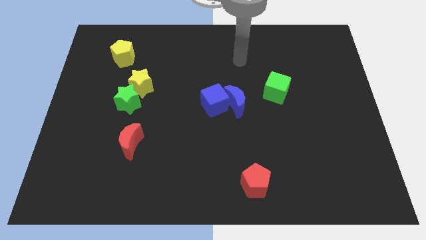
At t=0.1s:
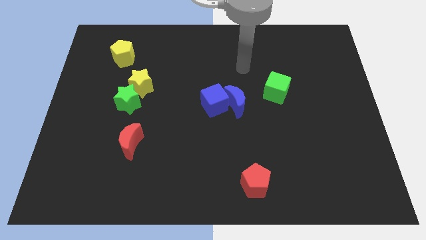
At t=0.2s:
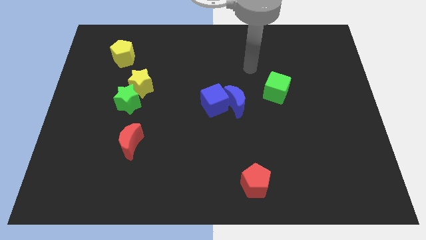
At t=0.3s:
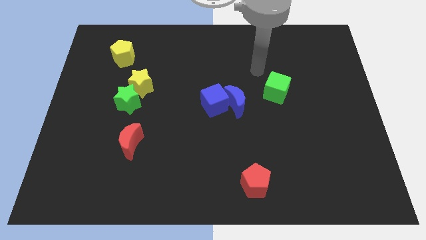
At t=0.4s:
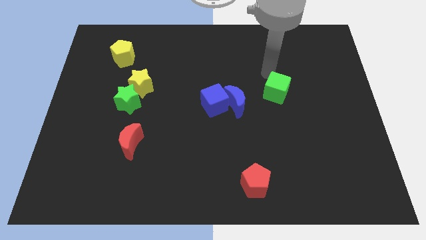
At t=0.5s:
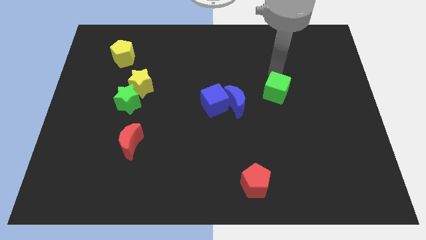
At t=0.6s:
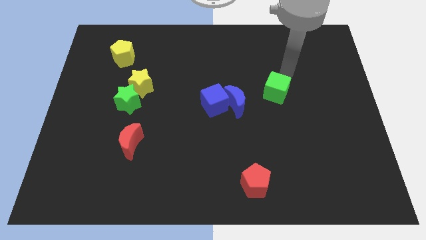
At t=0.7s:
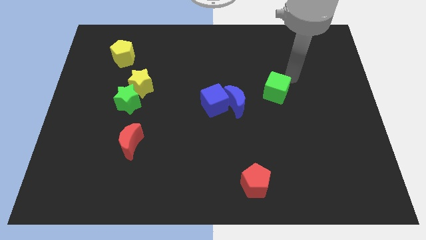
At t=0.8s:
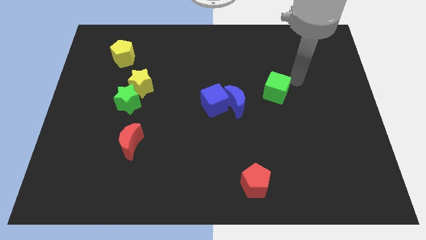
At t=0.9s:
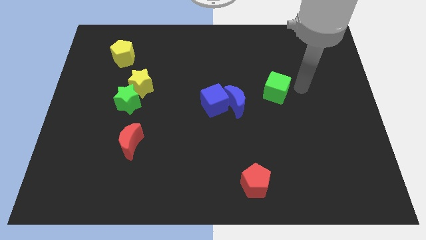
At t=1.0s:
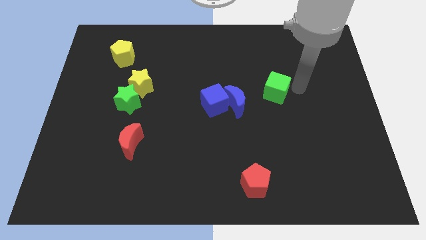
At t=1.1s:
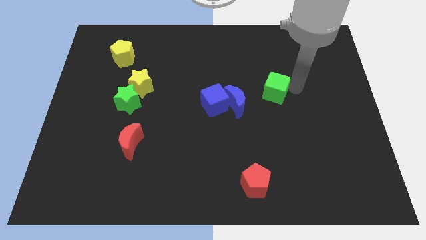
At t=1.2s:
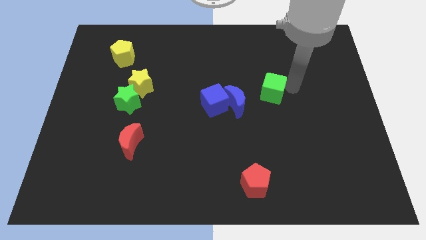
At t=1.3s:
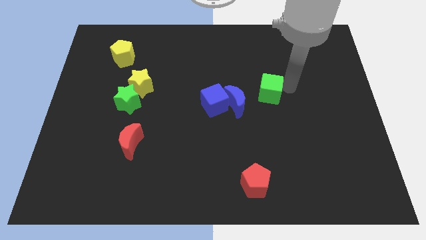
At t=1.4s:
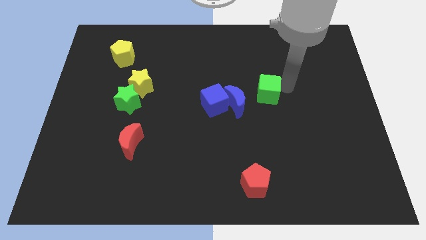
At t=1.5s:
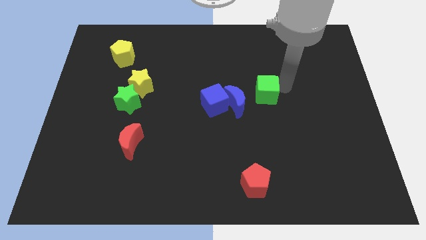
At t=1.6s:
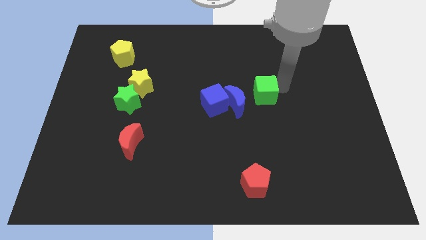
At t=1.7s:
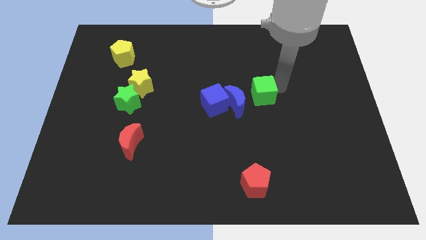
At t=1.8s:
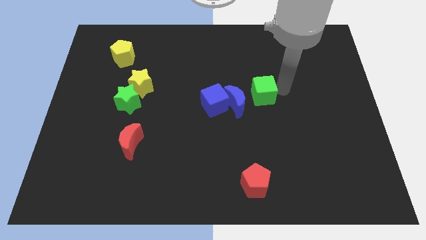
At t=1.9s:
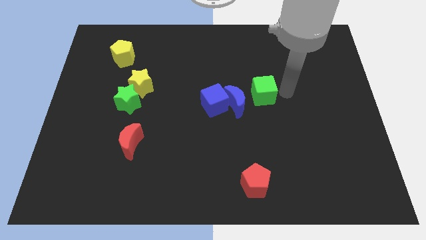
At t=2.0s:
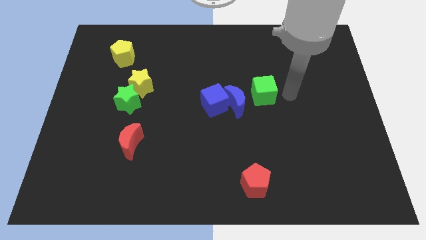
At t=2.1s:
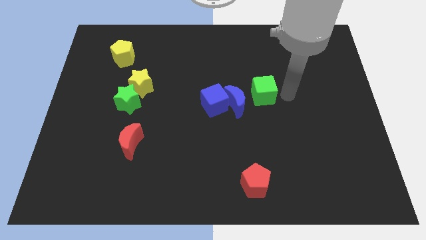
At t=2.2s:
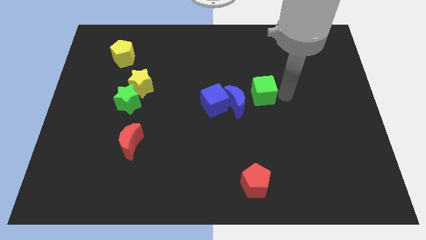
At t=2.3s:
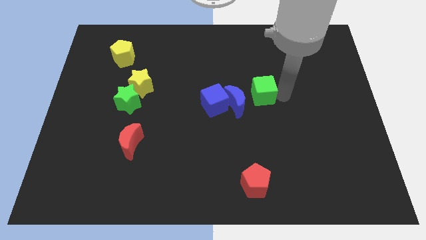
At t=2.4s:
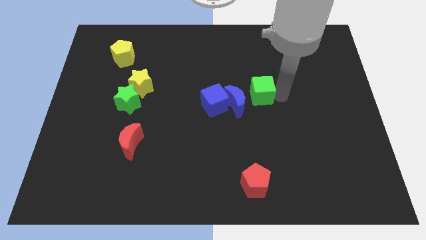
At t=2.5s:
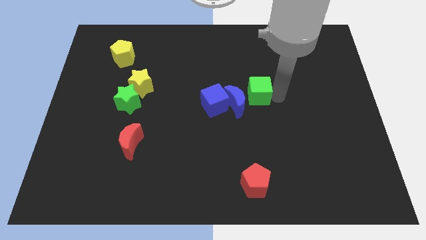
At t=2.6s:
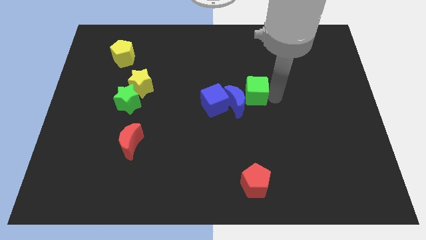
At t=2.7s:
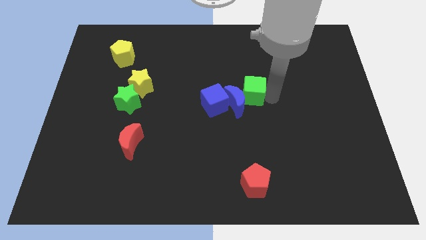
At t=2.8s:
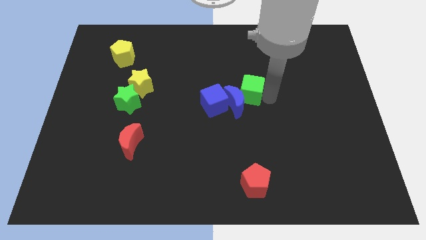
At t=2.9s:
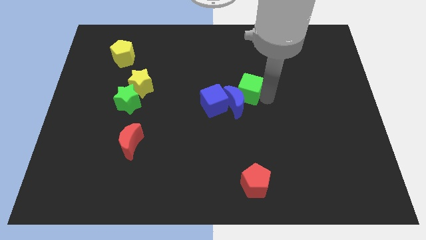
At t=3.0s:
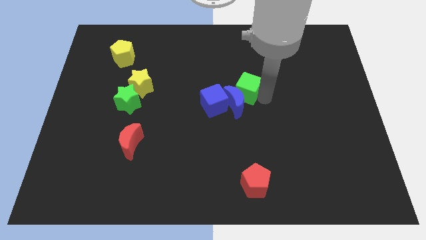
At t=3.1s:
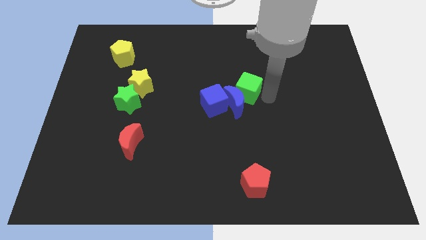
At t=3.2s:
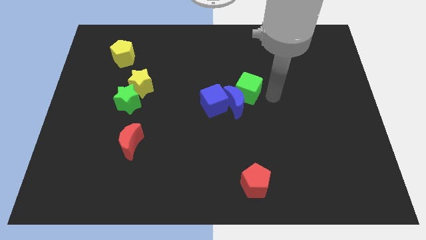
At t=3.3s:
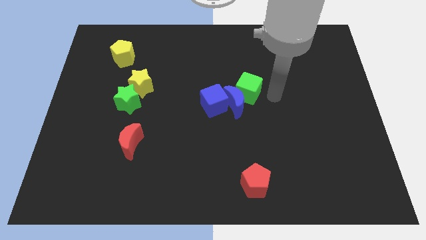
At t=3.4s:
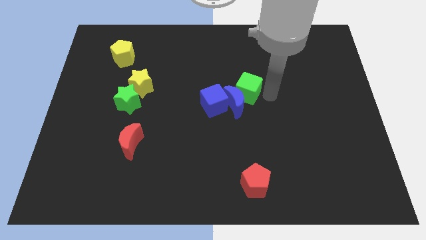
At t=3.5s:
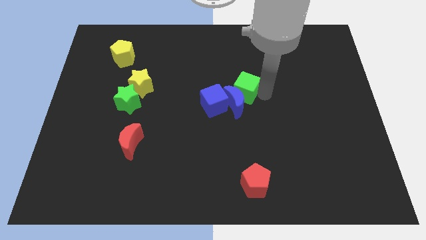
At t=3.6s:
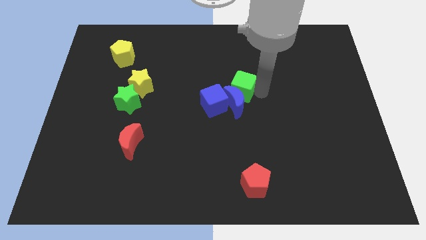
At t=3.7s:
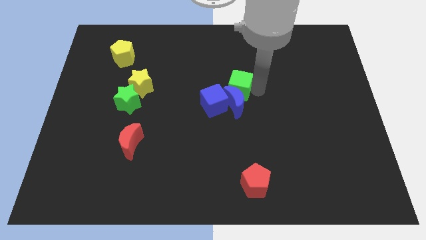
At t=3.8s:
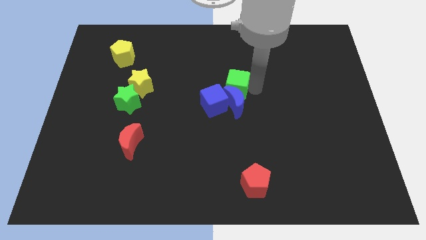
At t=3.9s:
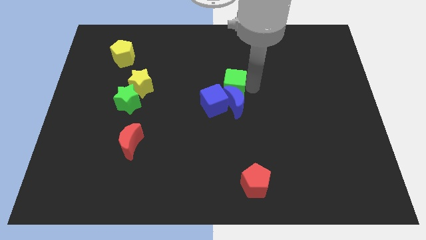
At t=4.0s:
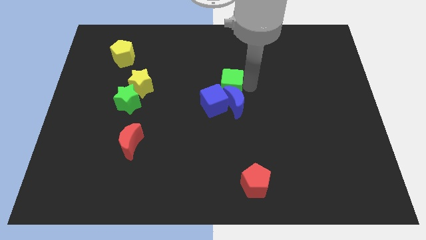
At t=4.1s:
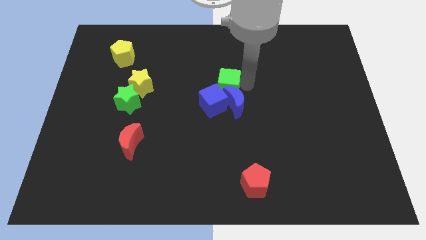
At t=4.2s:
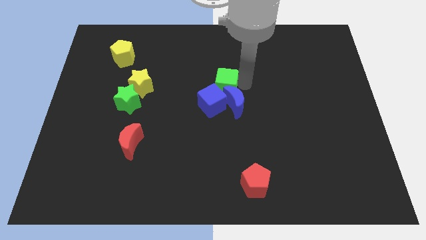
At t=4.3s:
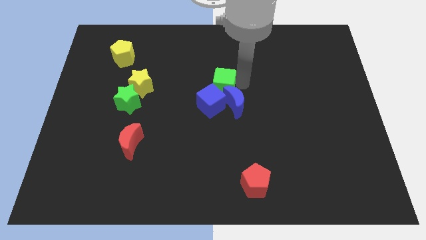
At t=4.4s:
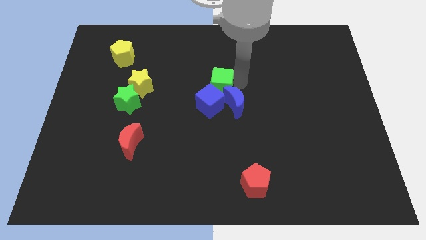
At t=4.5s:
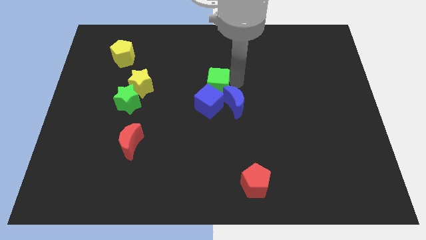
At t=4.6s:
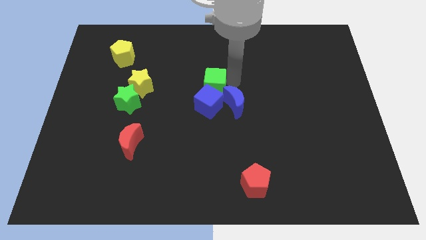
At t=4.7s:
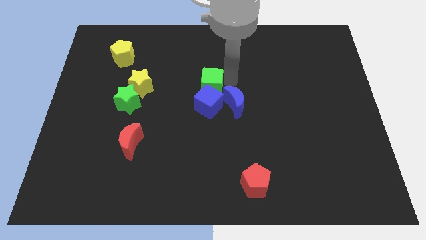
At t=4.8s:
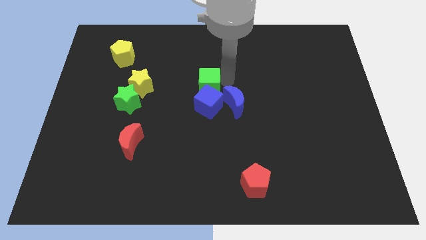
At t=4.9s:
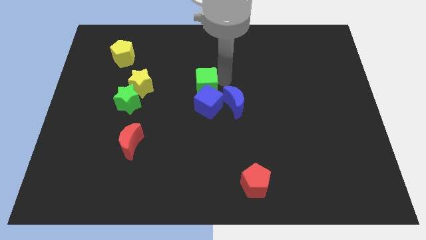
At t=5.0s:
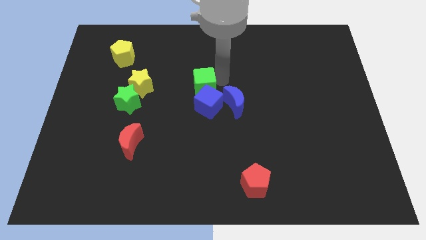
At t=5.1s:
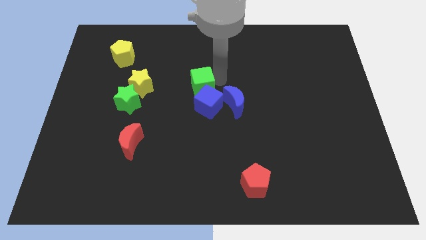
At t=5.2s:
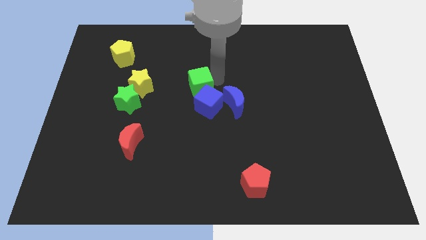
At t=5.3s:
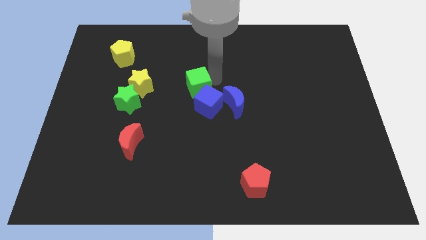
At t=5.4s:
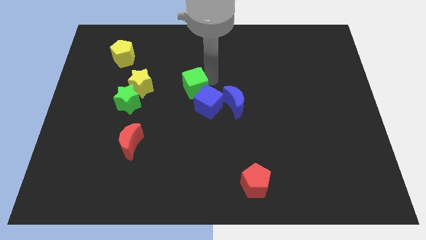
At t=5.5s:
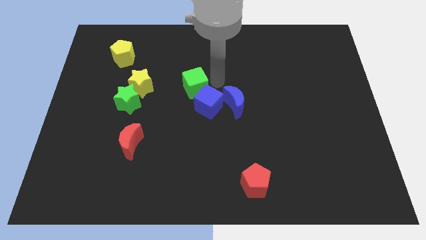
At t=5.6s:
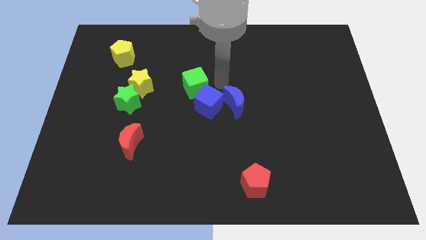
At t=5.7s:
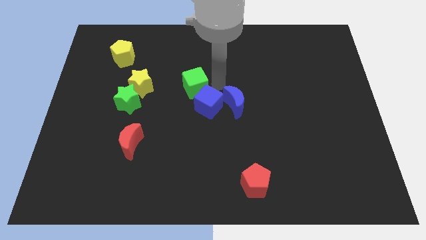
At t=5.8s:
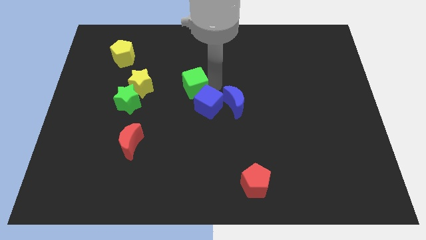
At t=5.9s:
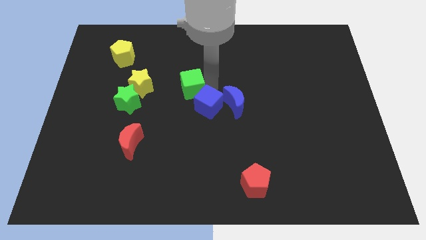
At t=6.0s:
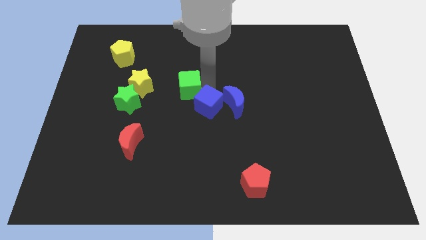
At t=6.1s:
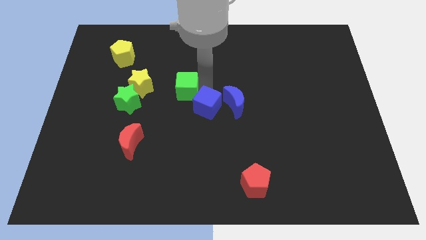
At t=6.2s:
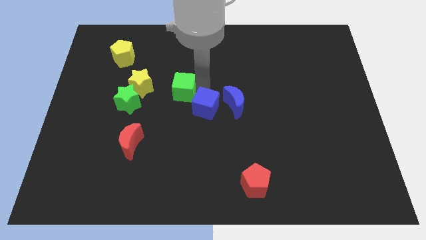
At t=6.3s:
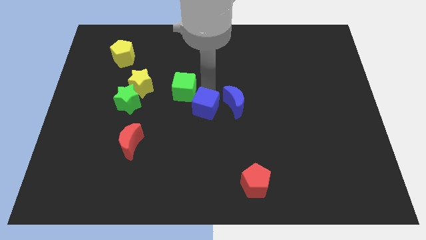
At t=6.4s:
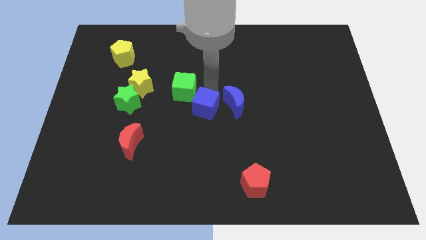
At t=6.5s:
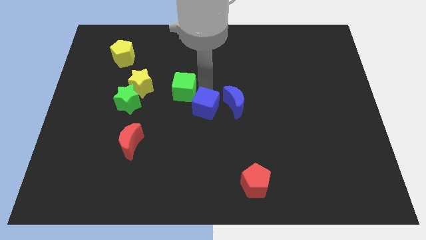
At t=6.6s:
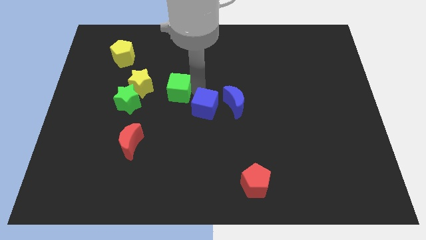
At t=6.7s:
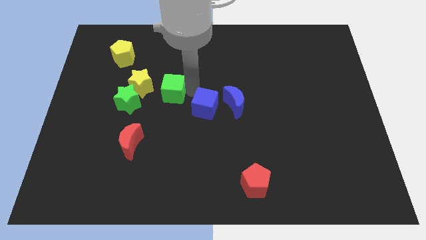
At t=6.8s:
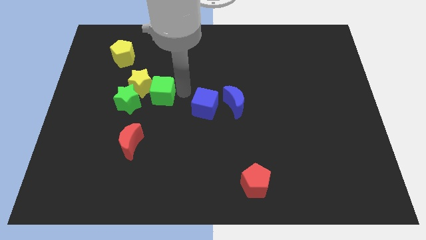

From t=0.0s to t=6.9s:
move the green cube next to the yellow star
